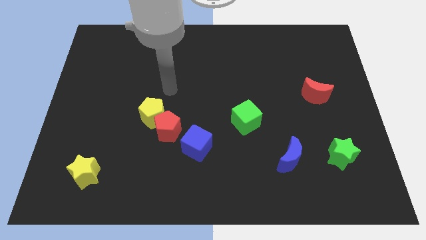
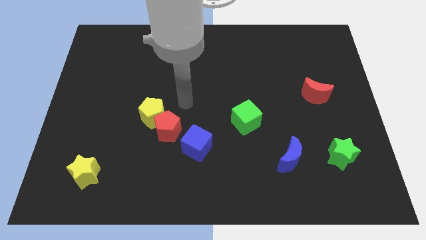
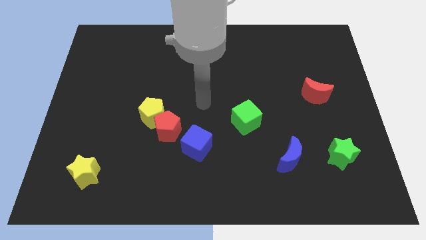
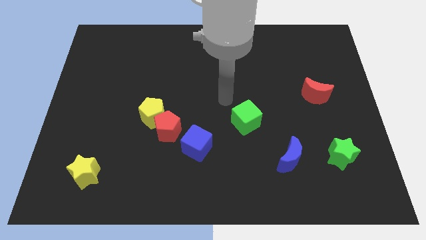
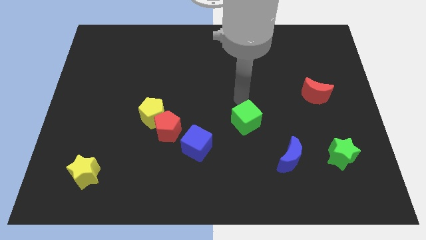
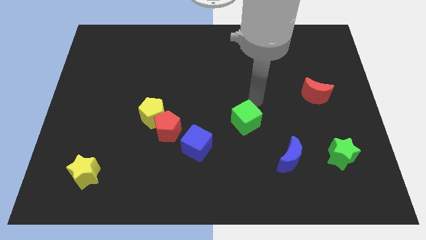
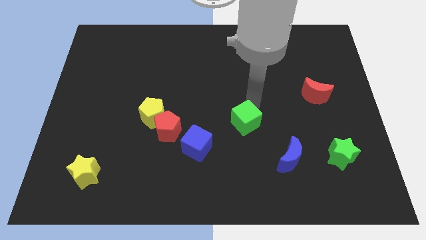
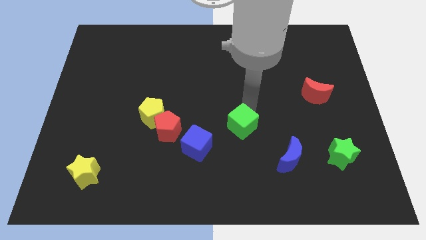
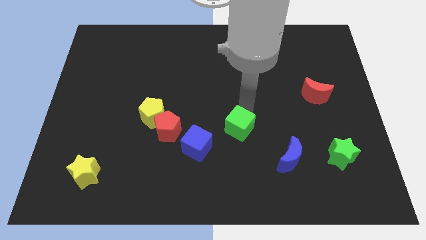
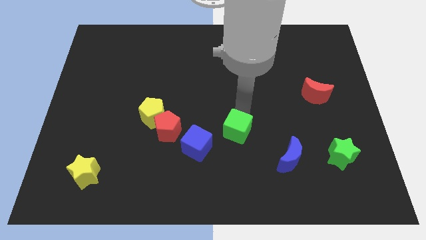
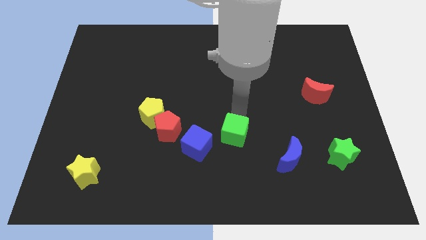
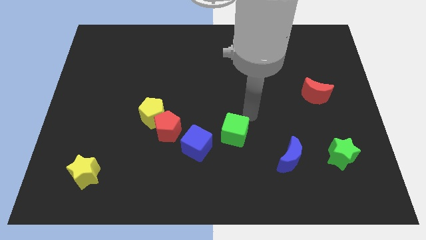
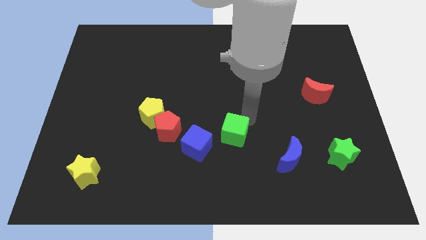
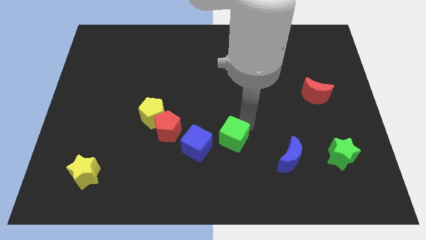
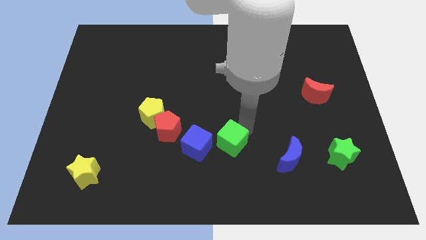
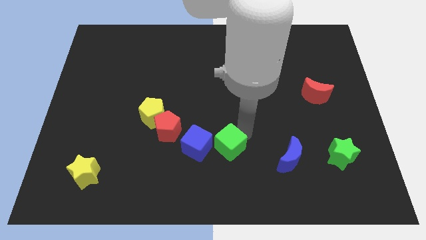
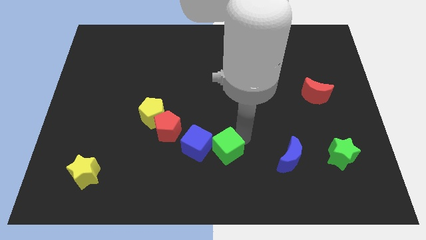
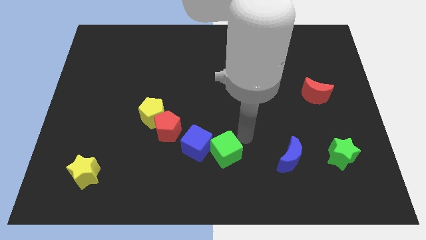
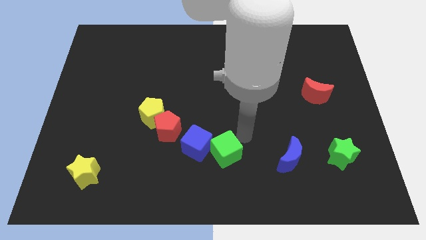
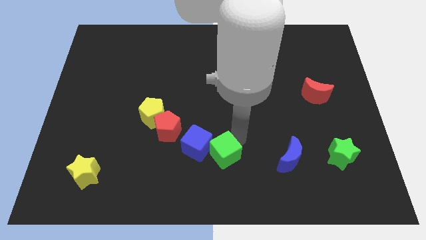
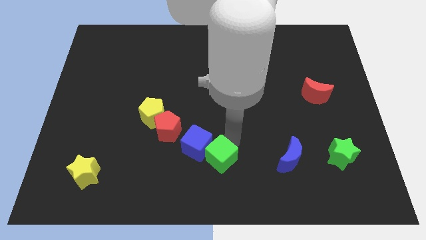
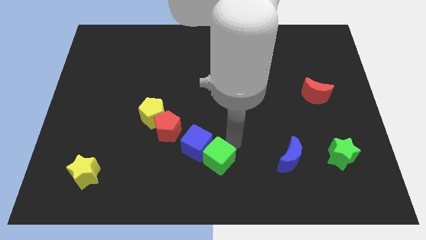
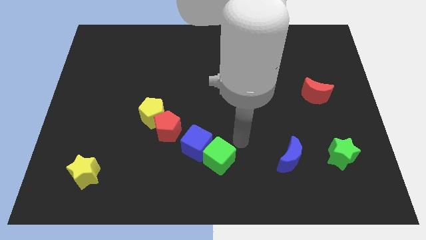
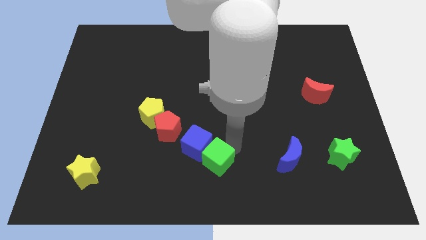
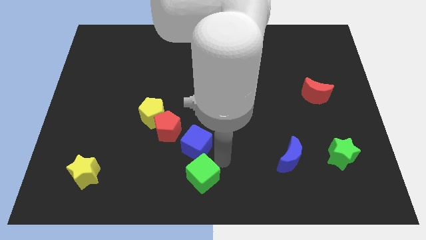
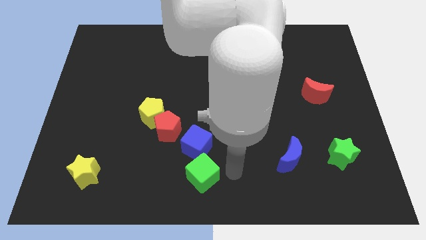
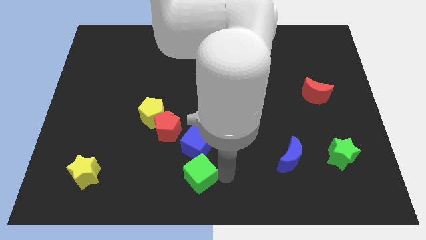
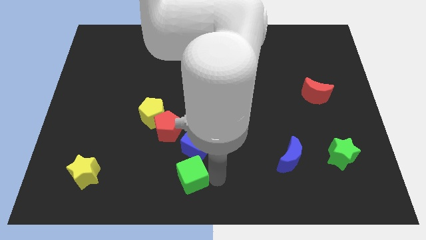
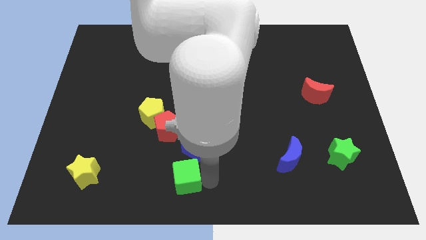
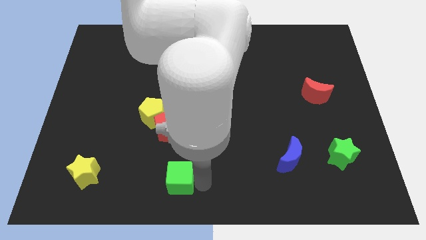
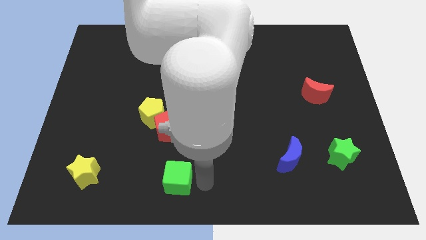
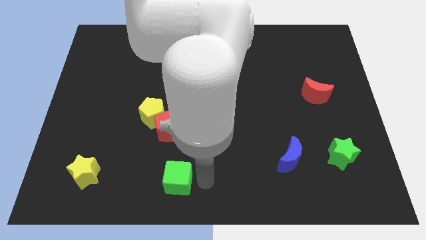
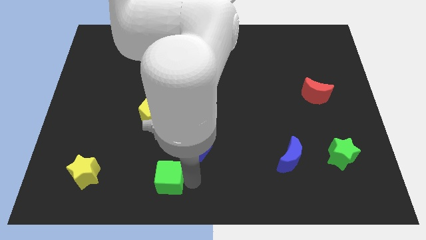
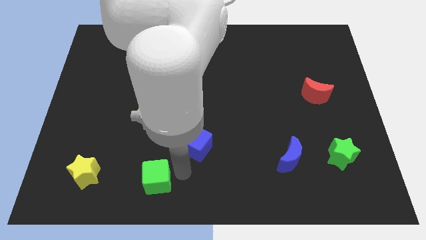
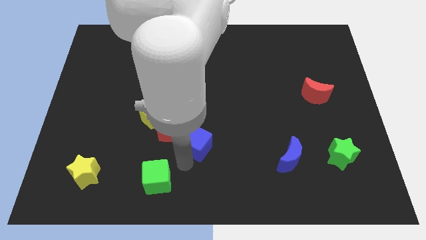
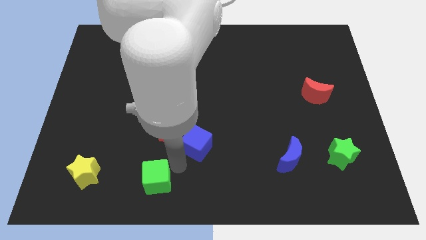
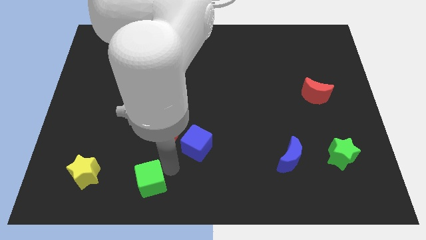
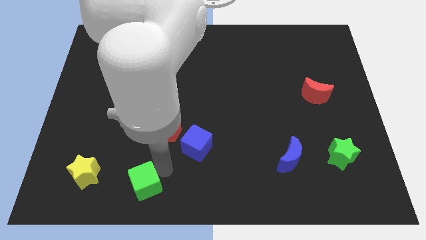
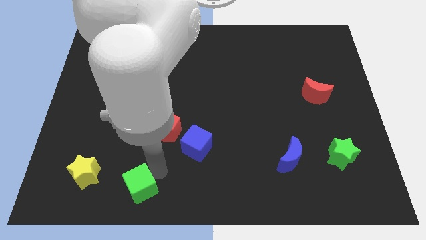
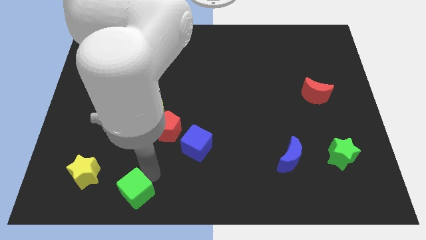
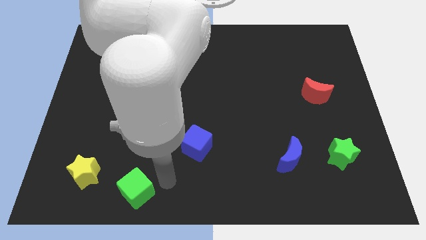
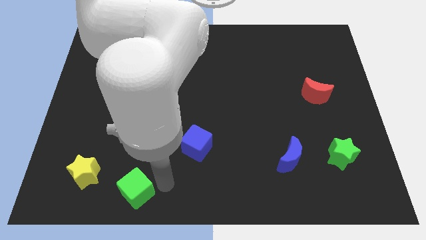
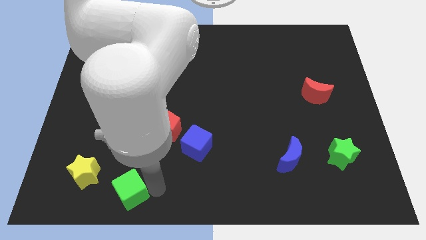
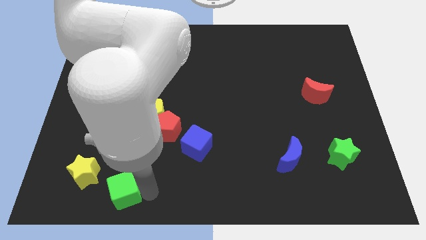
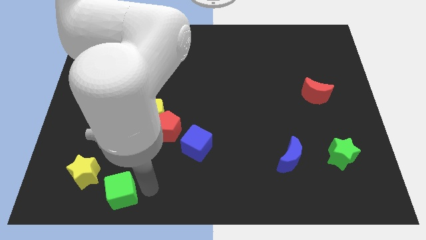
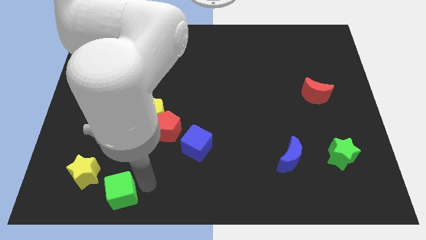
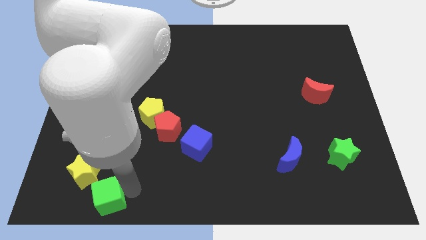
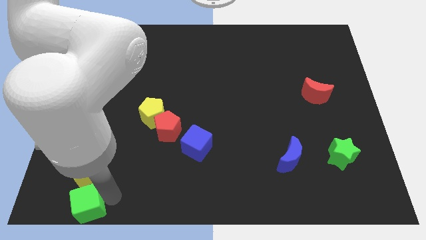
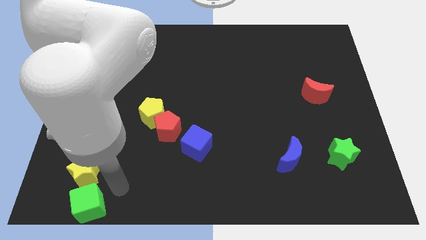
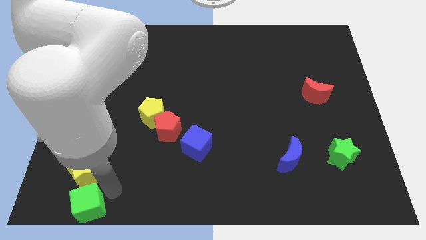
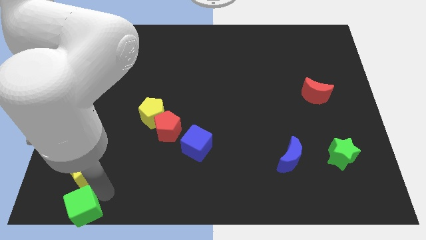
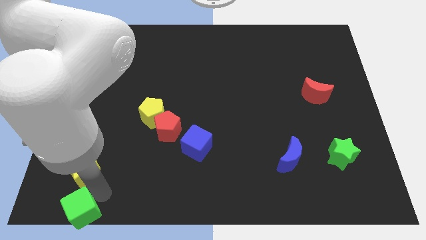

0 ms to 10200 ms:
put the green cube to the lower left corner

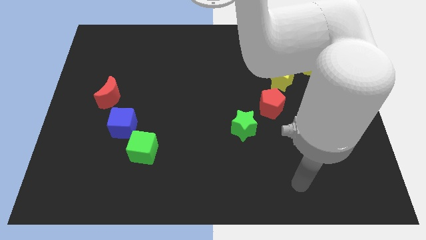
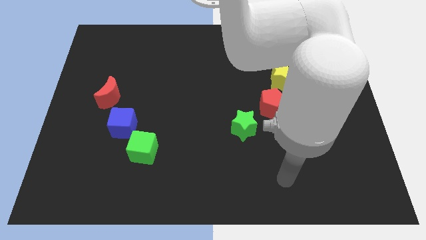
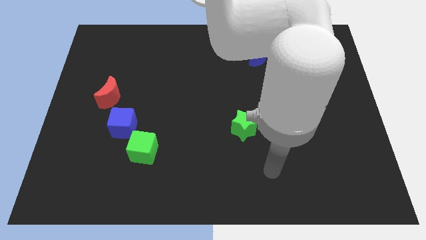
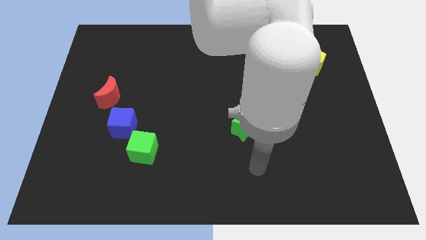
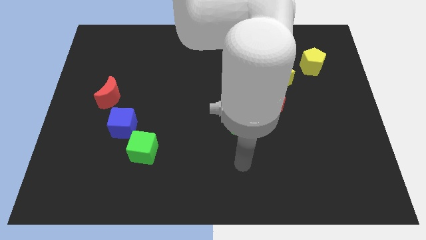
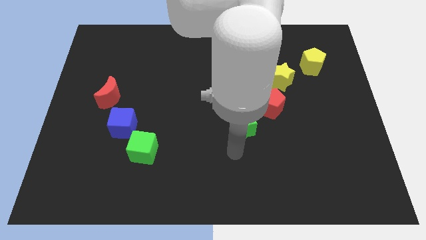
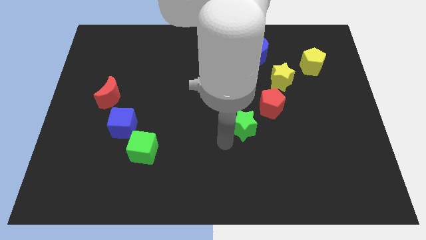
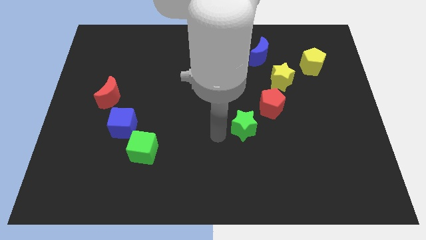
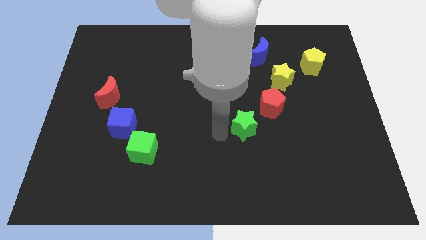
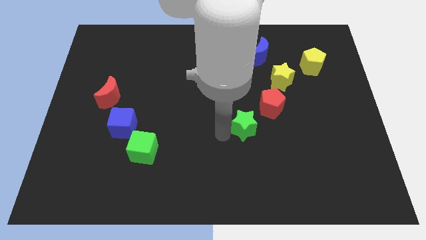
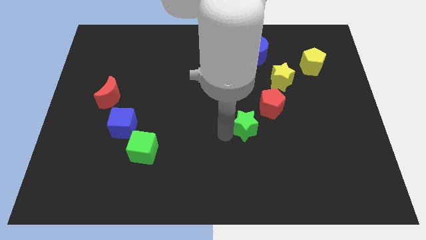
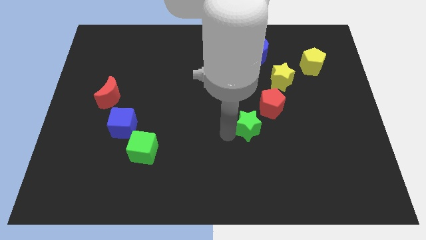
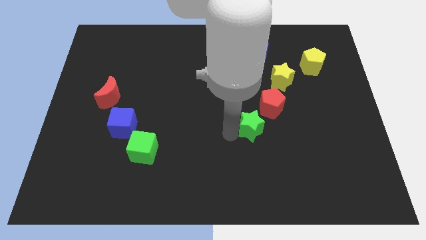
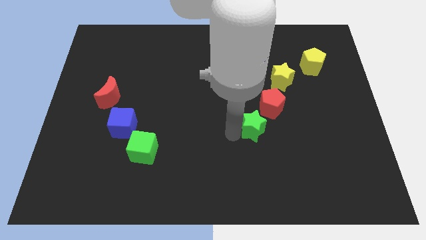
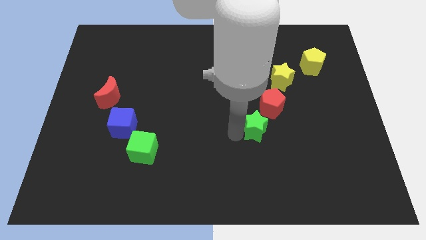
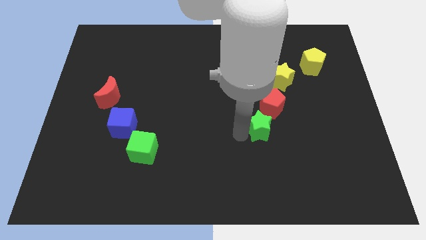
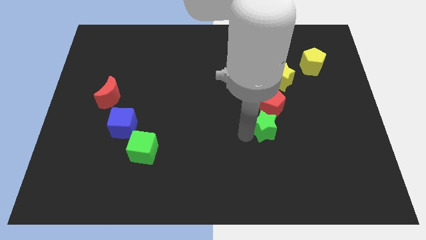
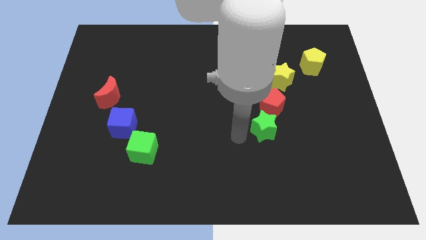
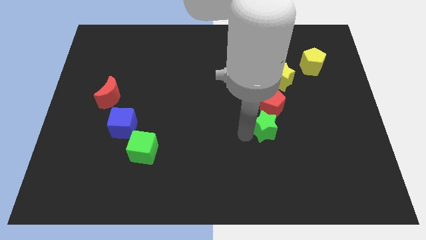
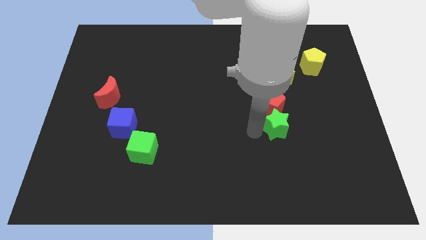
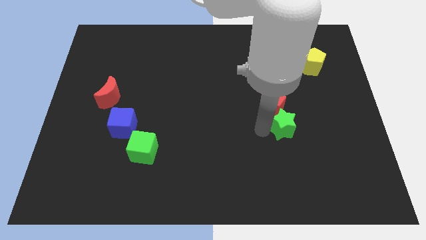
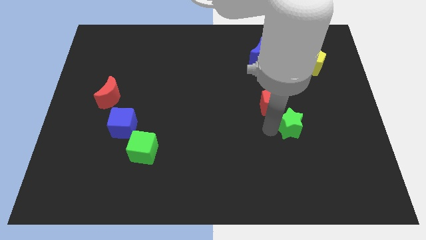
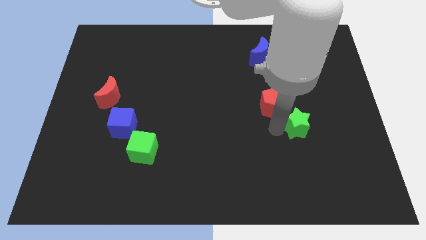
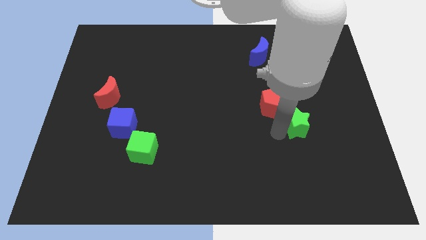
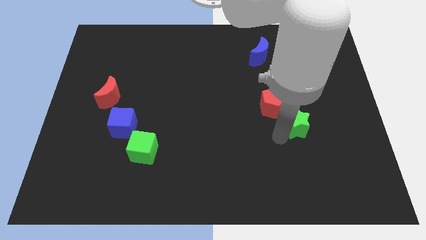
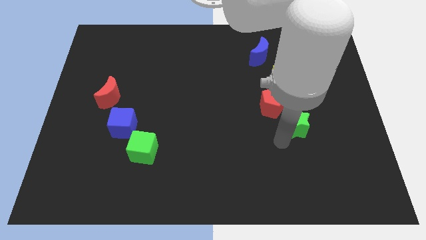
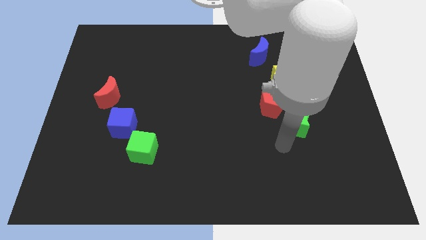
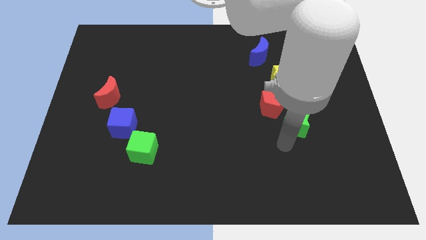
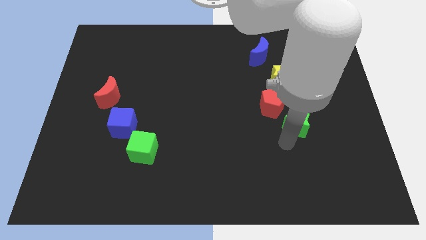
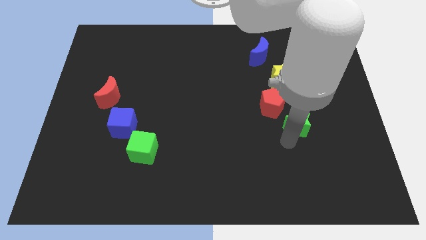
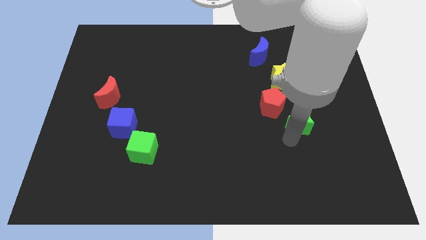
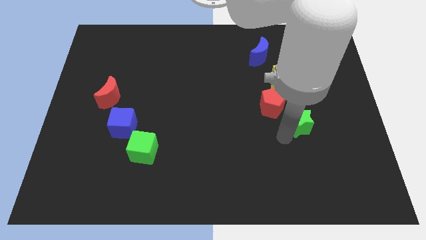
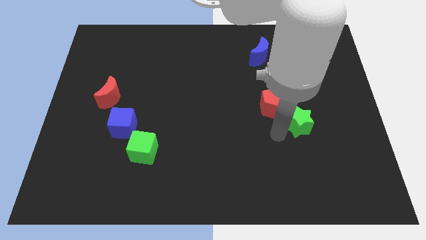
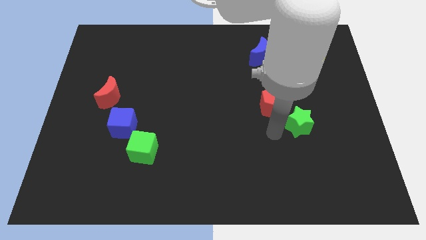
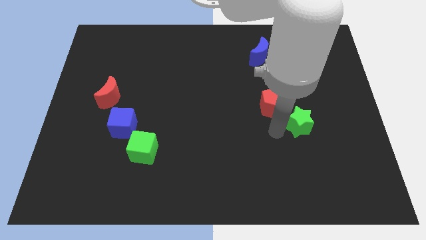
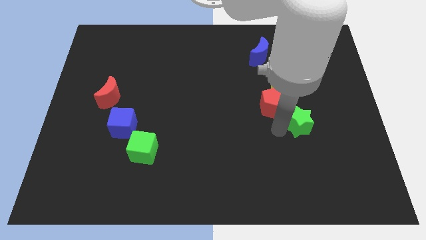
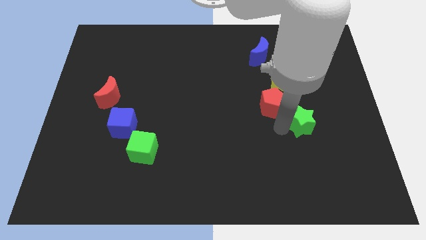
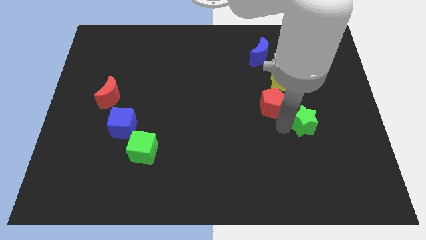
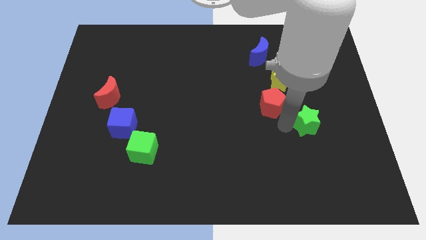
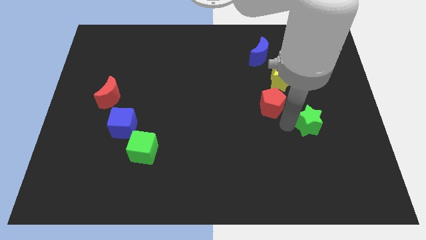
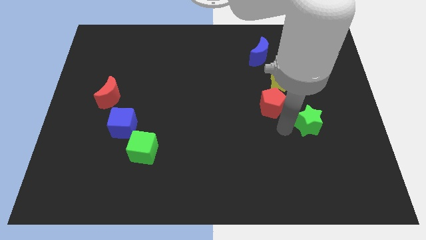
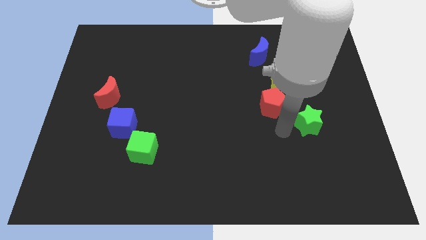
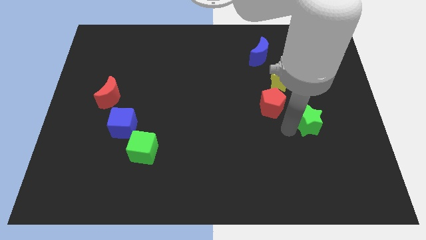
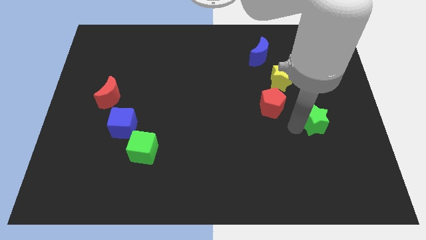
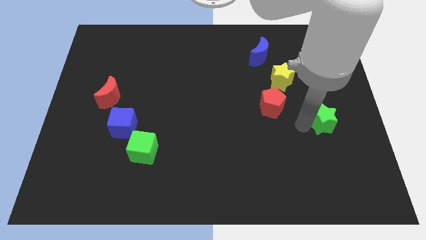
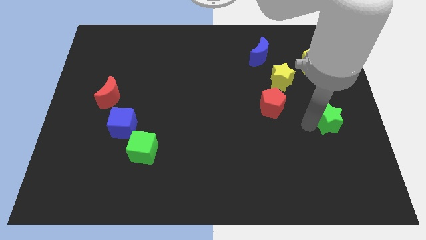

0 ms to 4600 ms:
slide the green star to the center right
